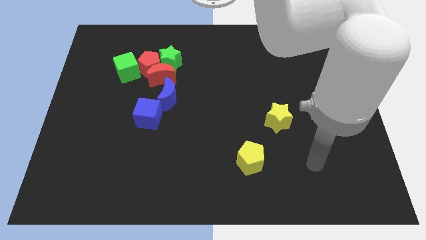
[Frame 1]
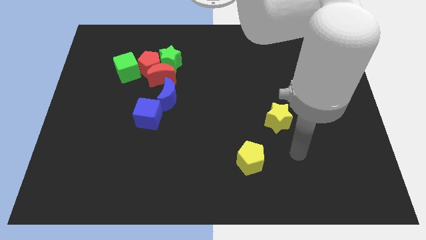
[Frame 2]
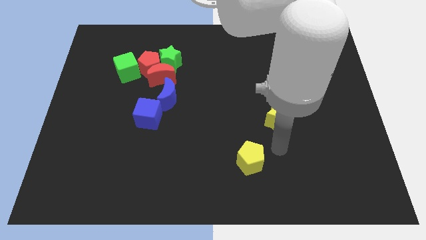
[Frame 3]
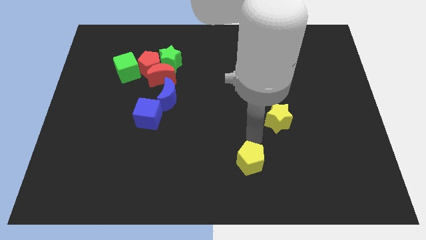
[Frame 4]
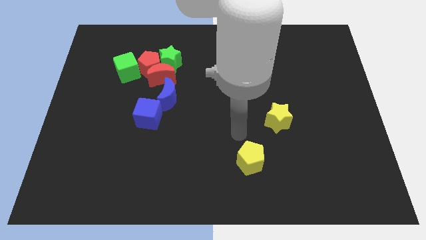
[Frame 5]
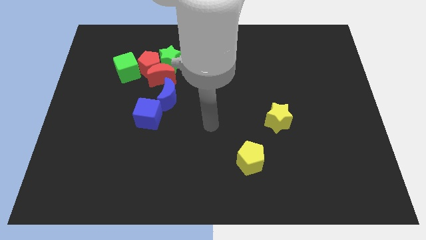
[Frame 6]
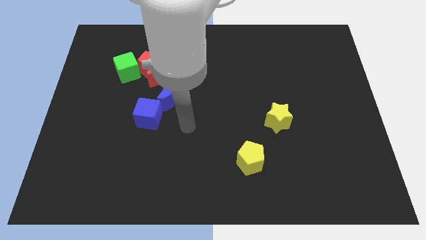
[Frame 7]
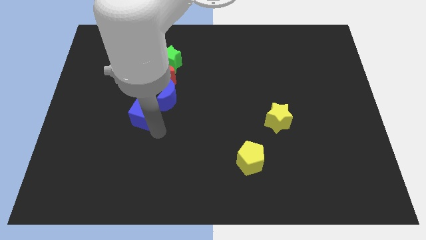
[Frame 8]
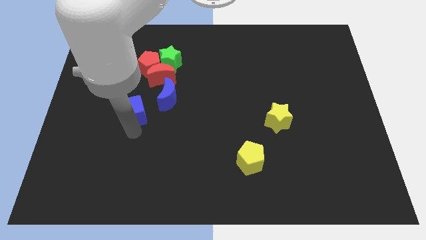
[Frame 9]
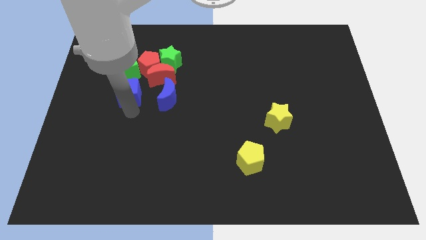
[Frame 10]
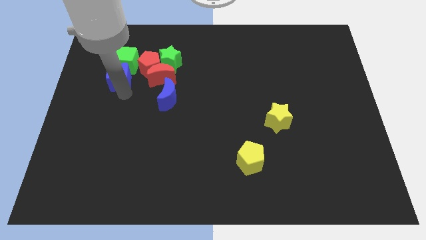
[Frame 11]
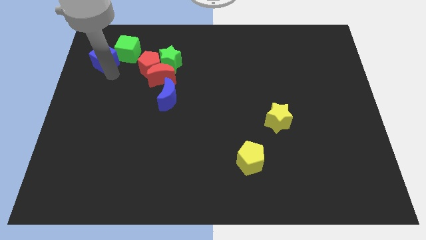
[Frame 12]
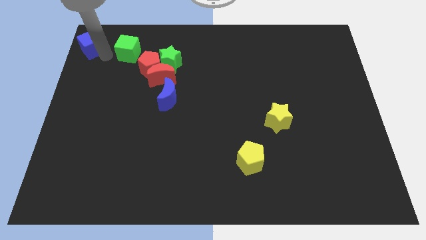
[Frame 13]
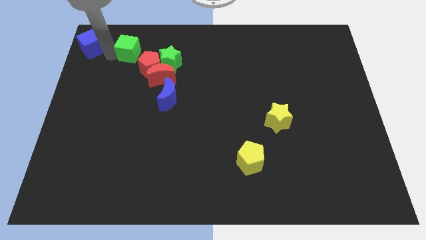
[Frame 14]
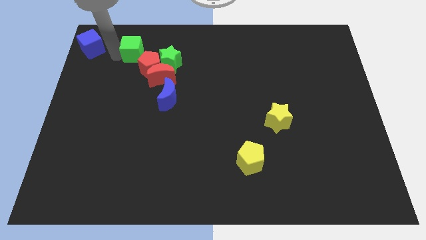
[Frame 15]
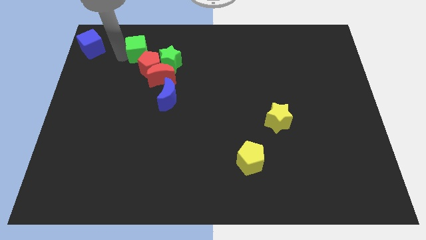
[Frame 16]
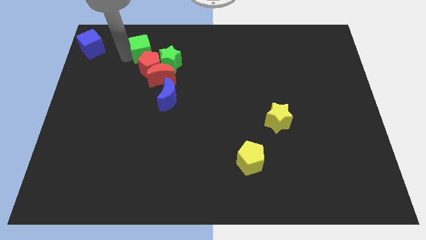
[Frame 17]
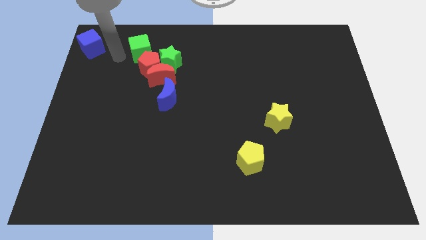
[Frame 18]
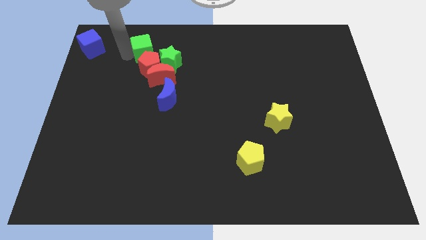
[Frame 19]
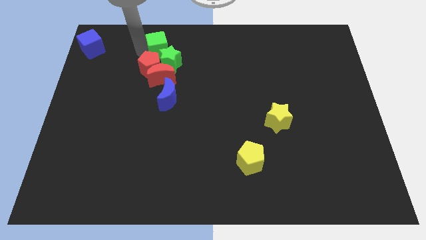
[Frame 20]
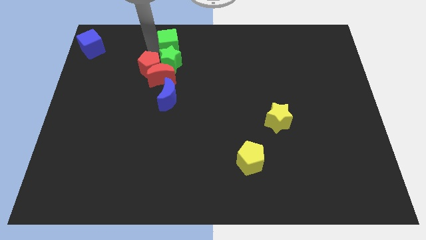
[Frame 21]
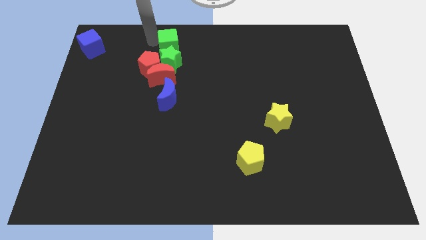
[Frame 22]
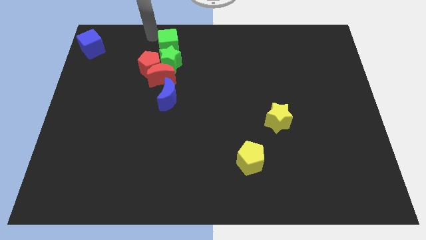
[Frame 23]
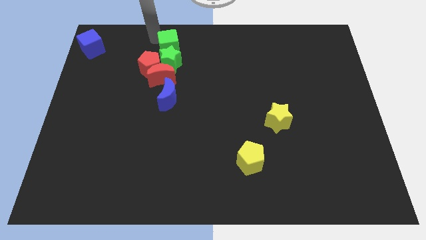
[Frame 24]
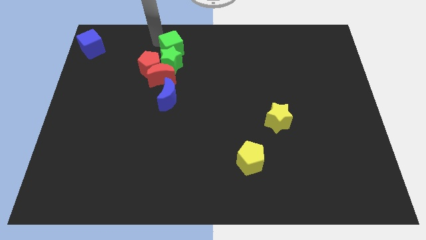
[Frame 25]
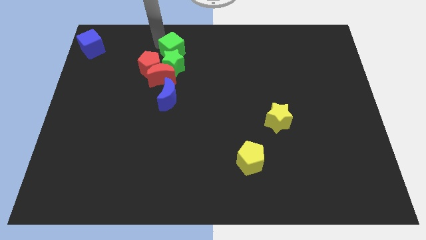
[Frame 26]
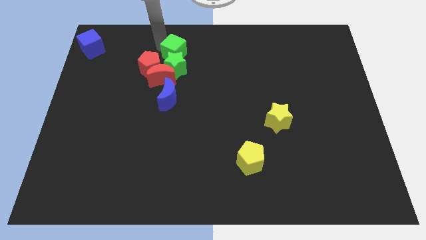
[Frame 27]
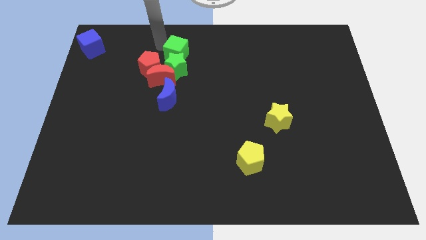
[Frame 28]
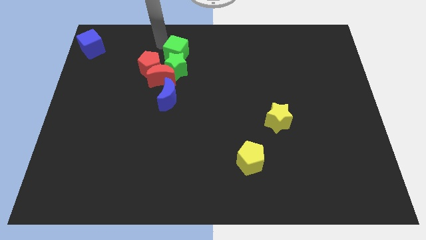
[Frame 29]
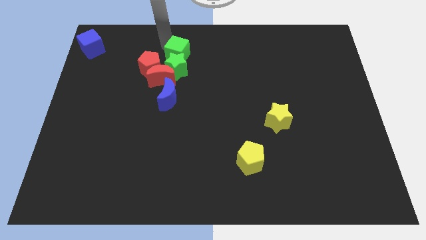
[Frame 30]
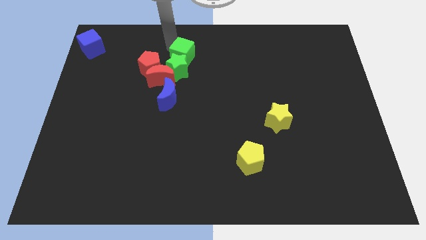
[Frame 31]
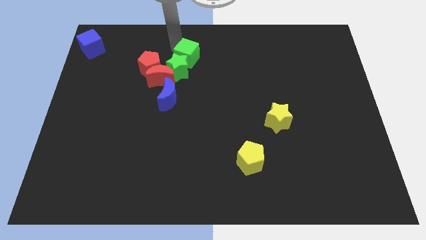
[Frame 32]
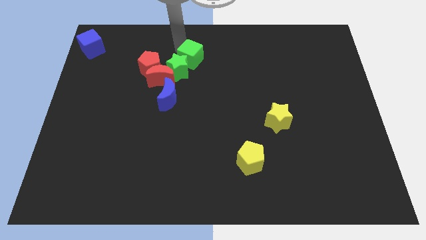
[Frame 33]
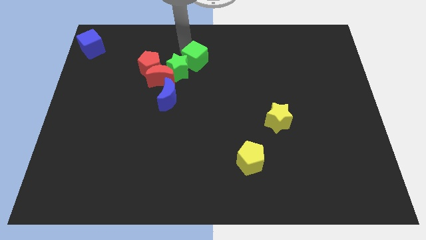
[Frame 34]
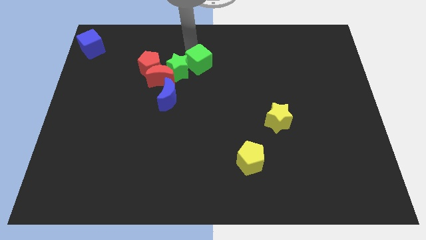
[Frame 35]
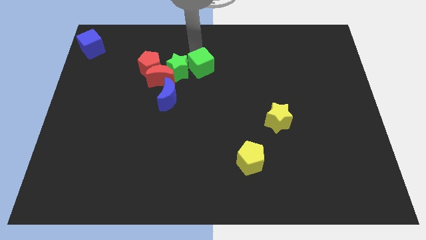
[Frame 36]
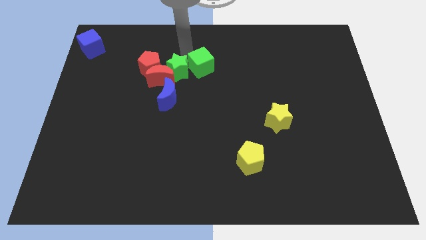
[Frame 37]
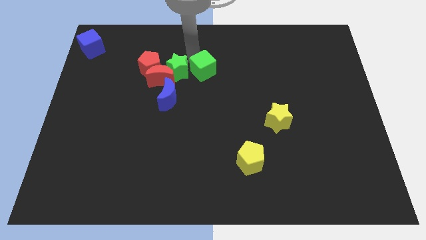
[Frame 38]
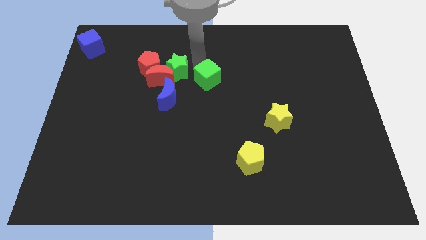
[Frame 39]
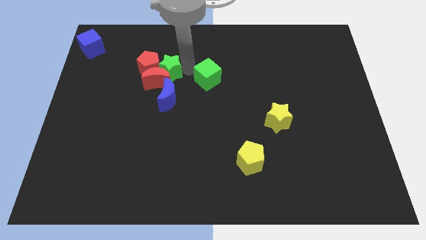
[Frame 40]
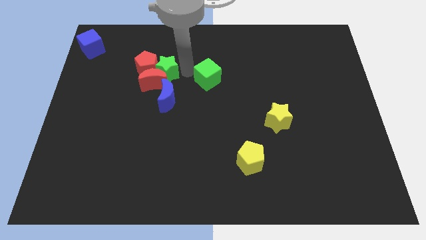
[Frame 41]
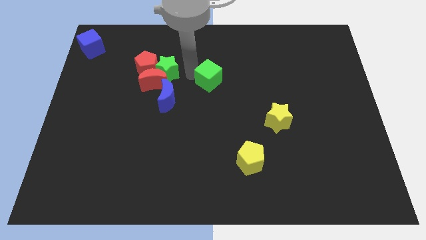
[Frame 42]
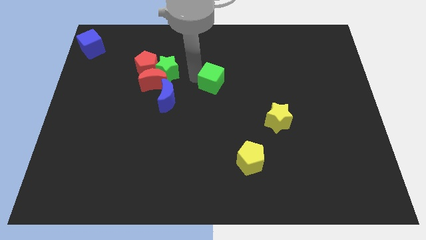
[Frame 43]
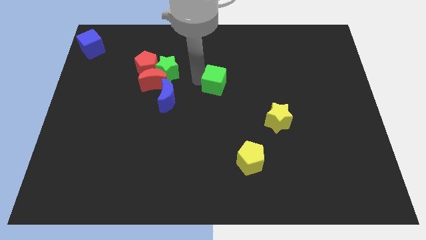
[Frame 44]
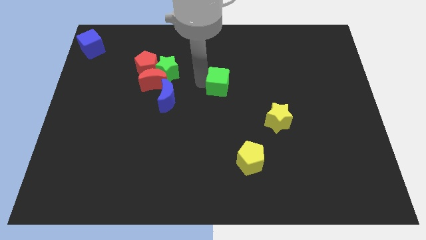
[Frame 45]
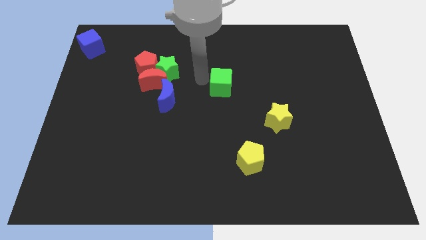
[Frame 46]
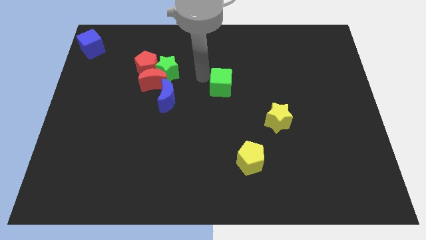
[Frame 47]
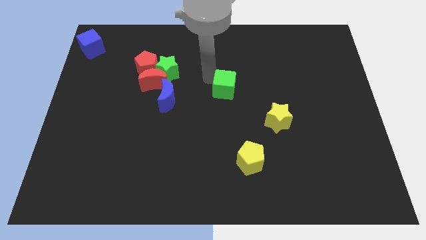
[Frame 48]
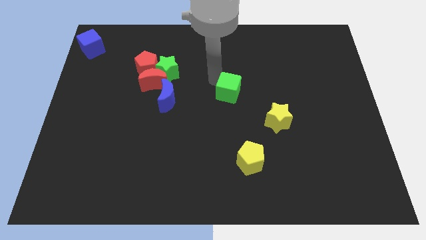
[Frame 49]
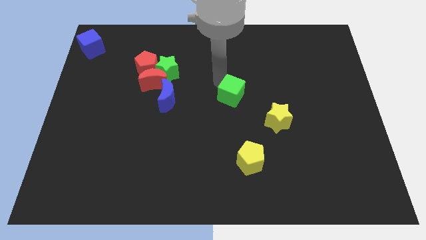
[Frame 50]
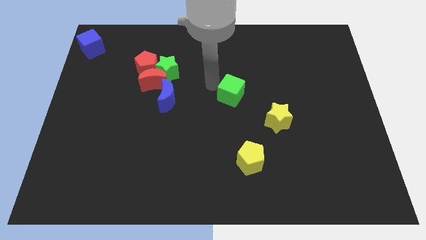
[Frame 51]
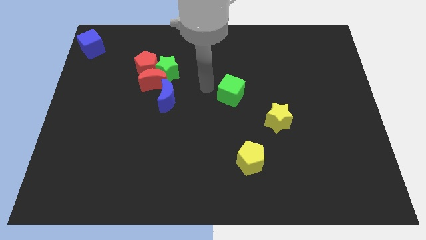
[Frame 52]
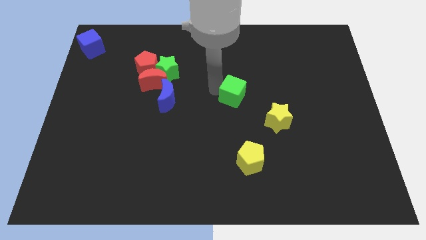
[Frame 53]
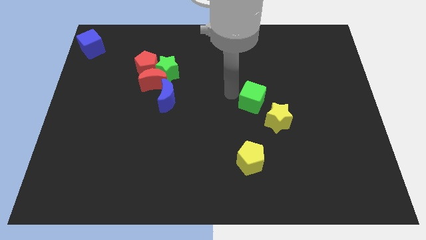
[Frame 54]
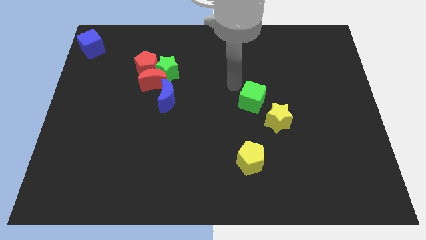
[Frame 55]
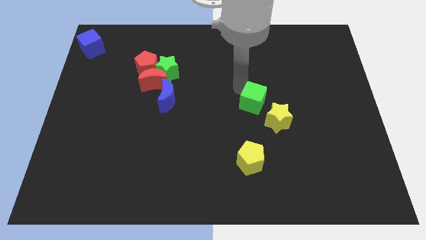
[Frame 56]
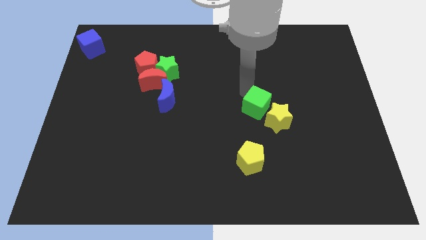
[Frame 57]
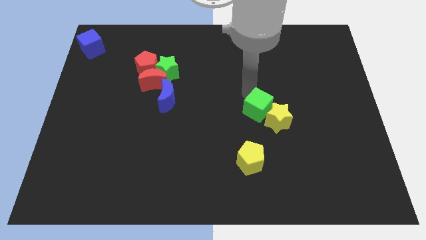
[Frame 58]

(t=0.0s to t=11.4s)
move the green cube next to the yellow star

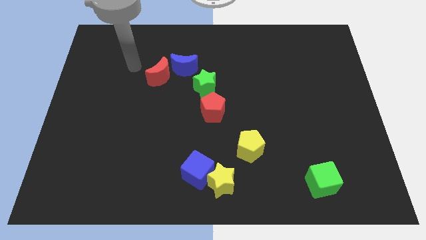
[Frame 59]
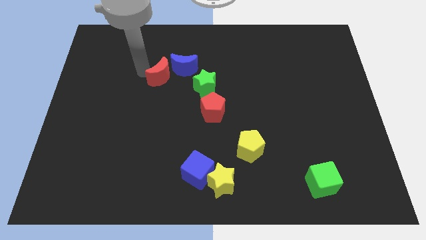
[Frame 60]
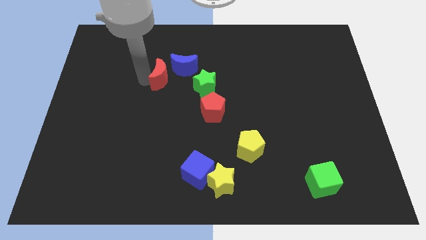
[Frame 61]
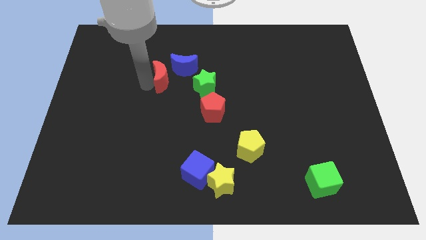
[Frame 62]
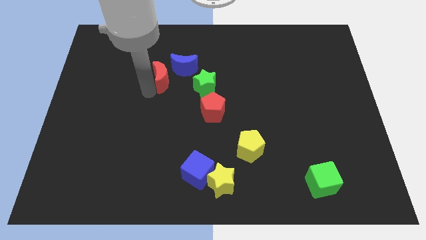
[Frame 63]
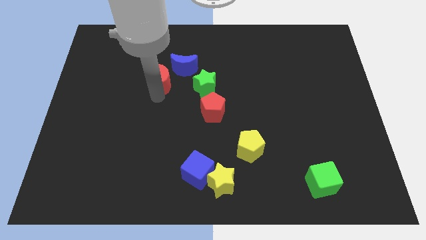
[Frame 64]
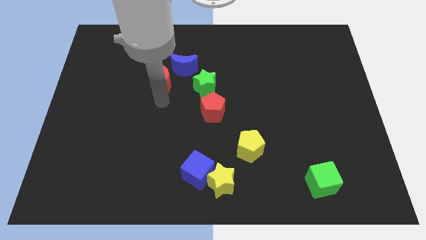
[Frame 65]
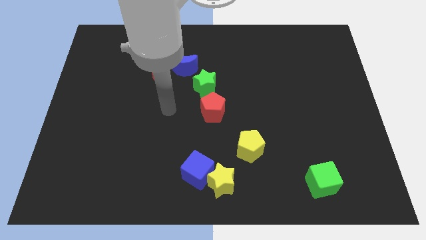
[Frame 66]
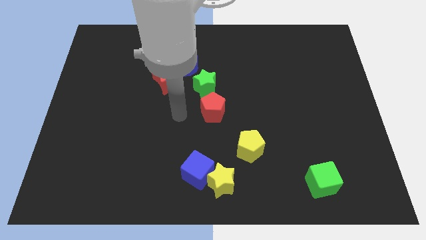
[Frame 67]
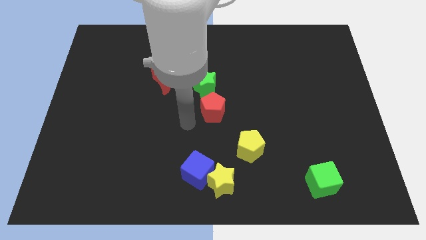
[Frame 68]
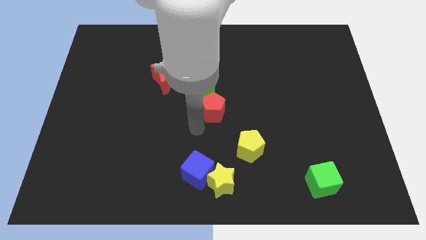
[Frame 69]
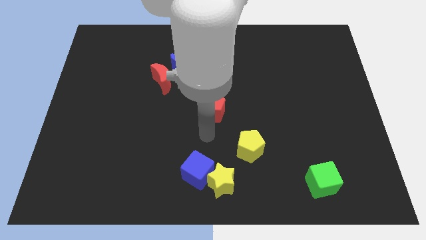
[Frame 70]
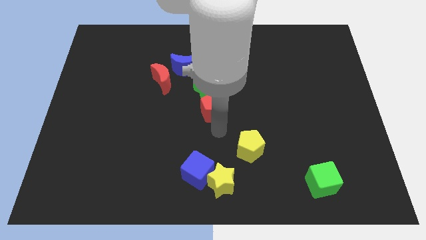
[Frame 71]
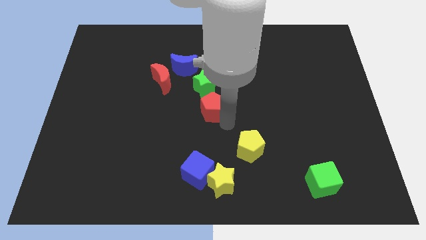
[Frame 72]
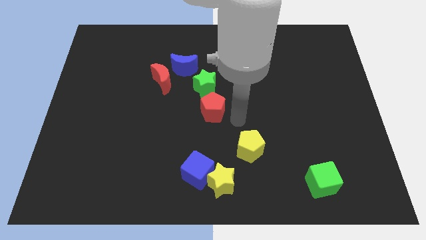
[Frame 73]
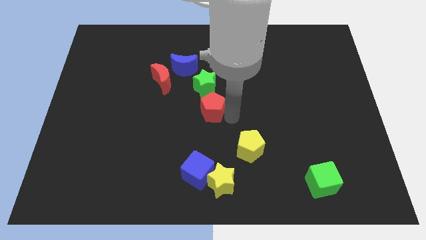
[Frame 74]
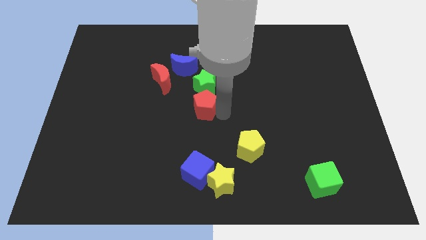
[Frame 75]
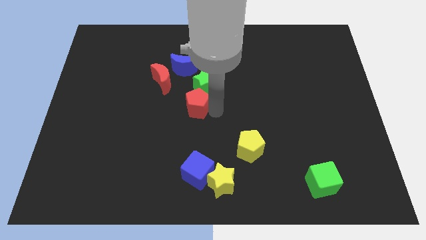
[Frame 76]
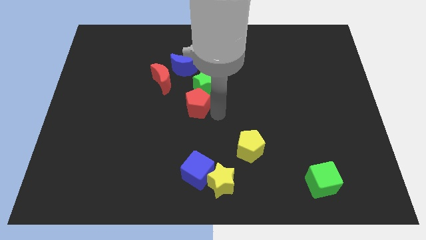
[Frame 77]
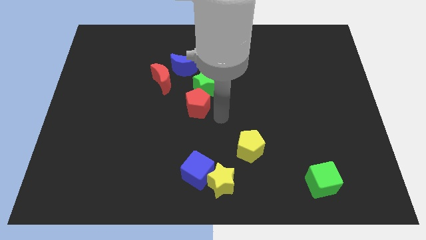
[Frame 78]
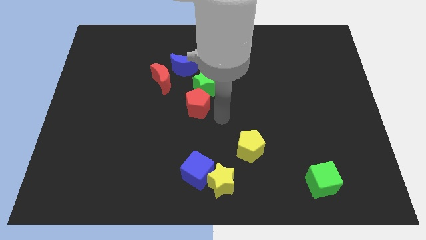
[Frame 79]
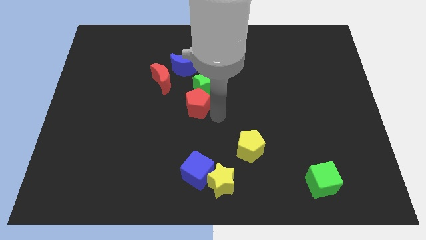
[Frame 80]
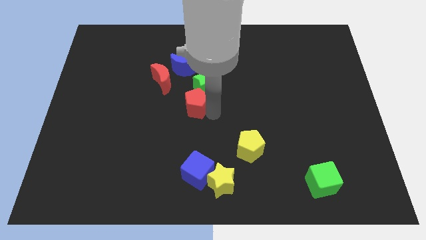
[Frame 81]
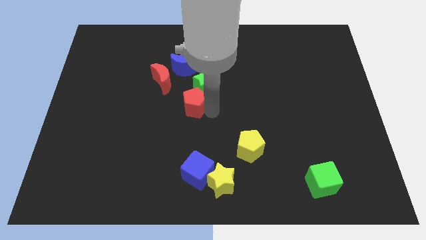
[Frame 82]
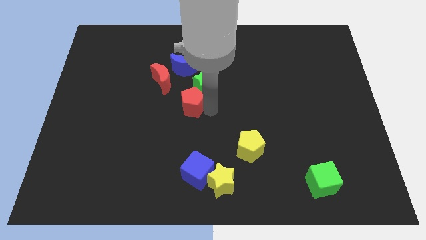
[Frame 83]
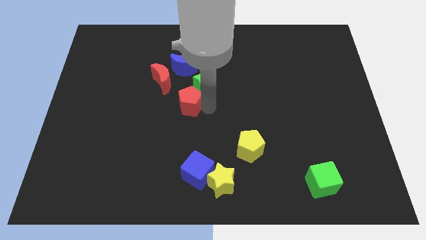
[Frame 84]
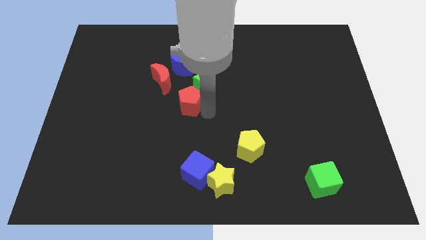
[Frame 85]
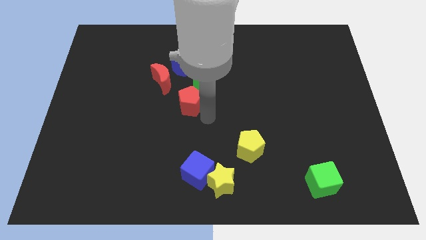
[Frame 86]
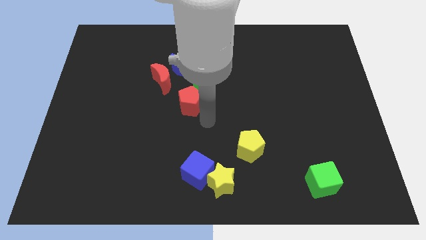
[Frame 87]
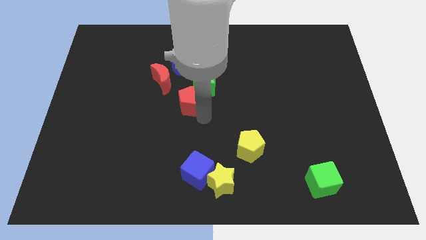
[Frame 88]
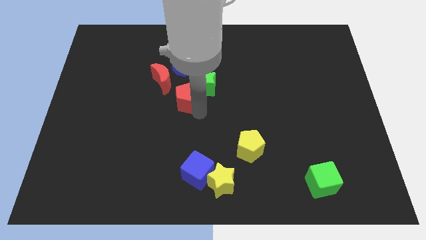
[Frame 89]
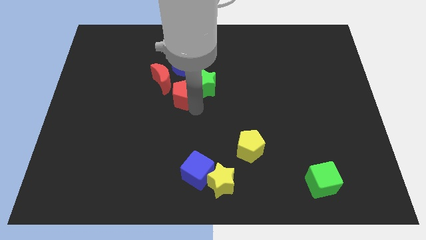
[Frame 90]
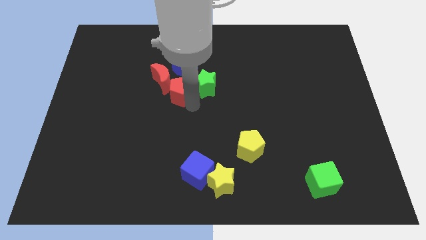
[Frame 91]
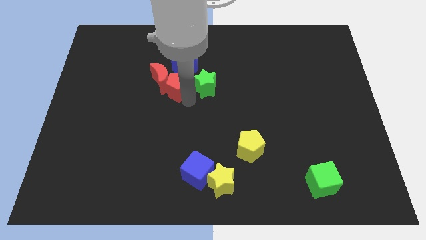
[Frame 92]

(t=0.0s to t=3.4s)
push the red pentagon to the red moon
